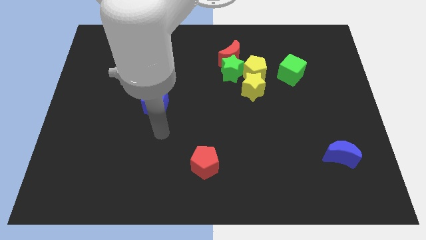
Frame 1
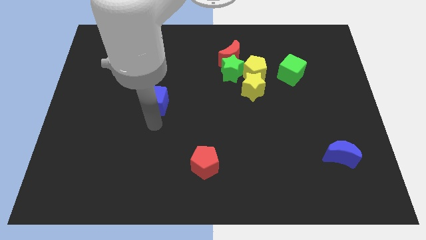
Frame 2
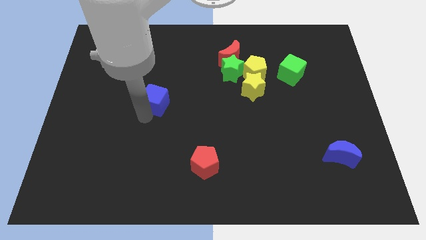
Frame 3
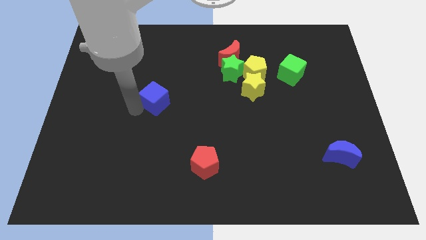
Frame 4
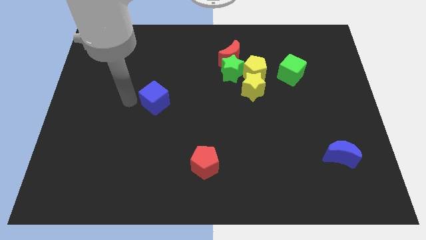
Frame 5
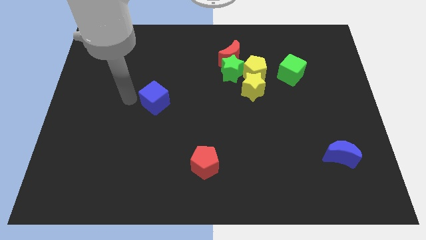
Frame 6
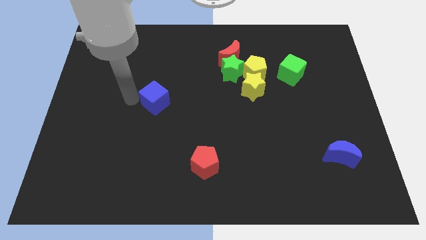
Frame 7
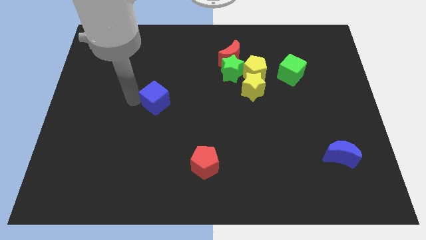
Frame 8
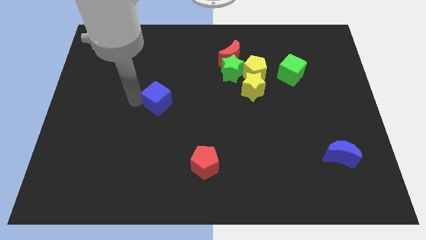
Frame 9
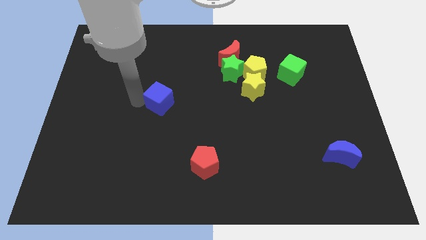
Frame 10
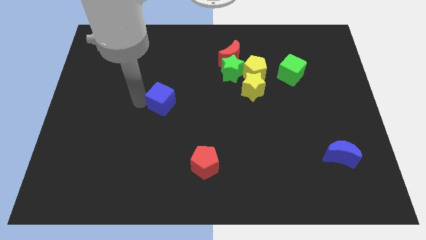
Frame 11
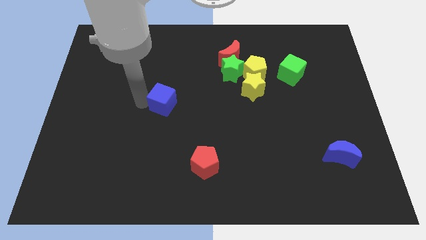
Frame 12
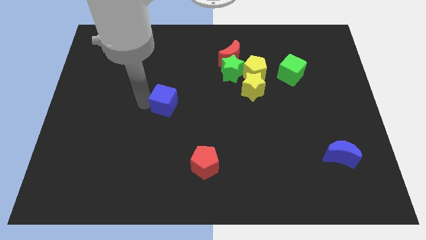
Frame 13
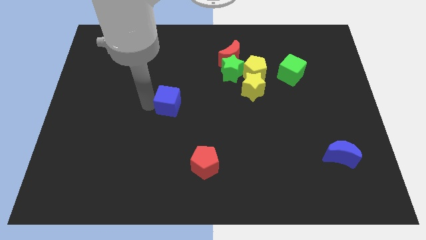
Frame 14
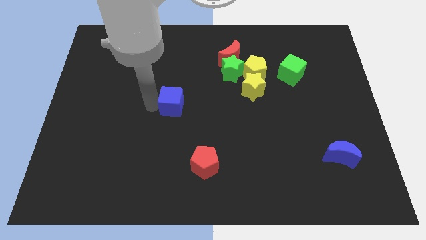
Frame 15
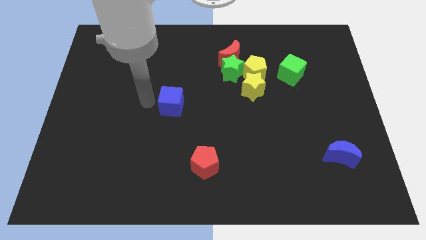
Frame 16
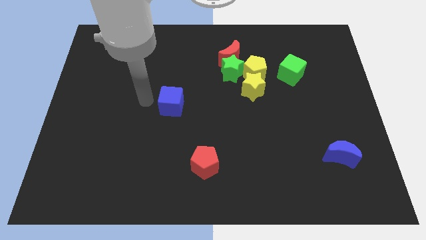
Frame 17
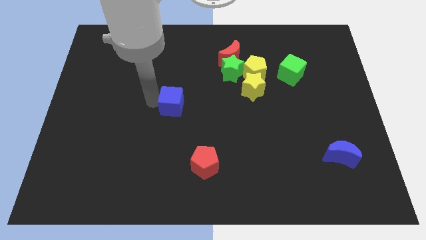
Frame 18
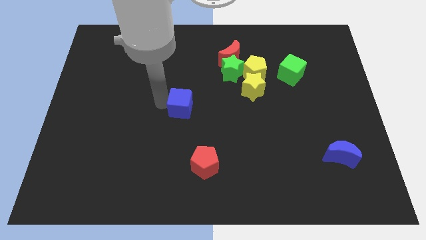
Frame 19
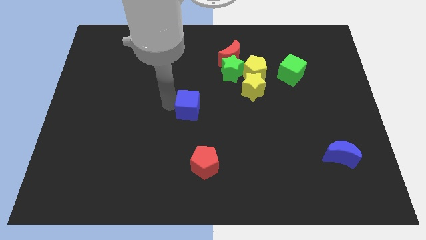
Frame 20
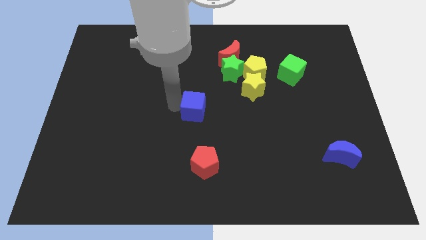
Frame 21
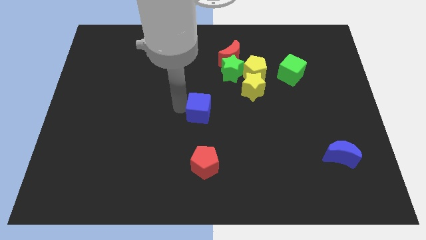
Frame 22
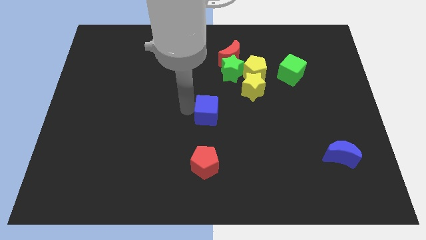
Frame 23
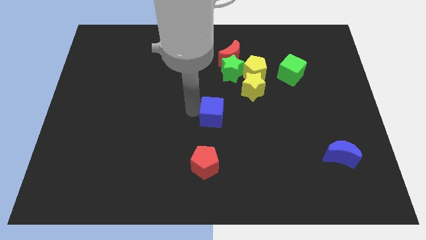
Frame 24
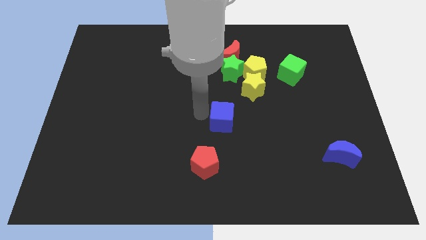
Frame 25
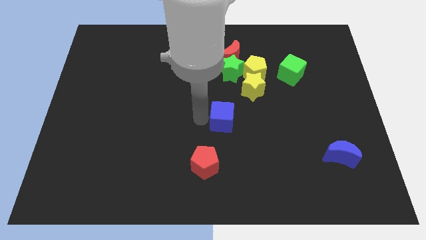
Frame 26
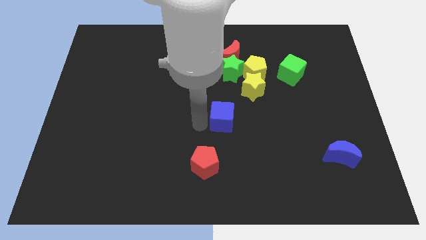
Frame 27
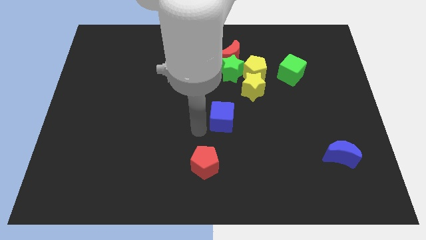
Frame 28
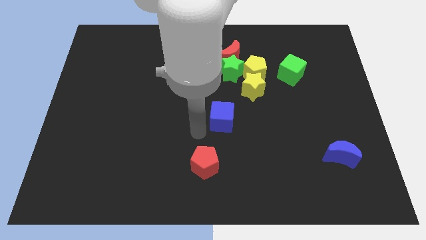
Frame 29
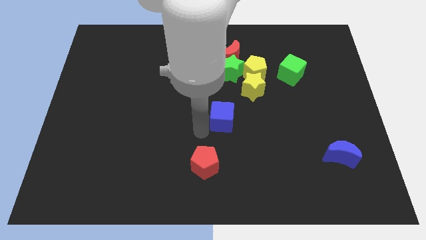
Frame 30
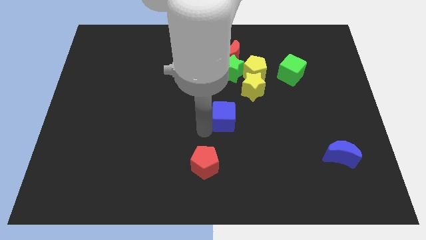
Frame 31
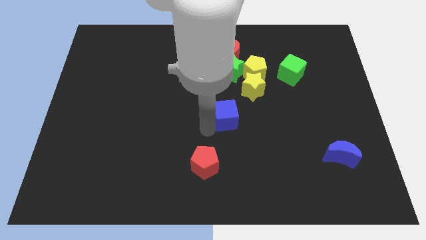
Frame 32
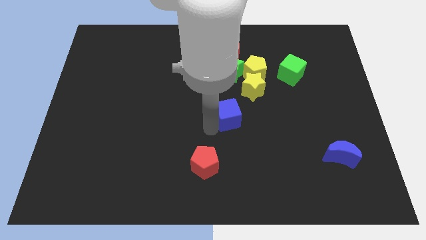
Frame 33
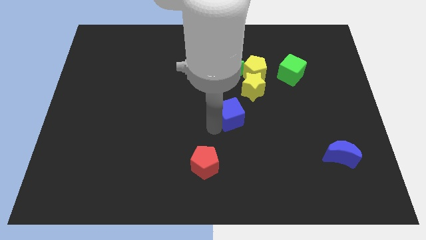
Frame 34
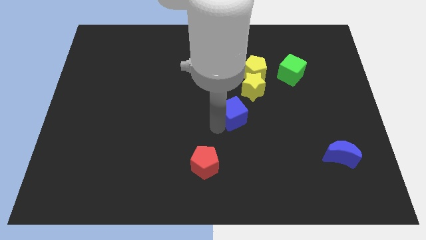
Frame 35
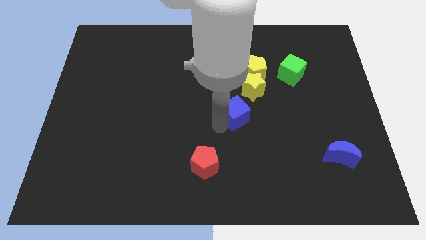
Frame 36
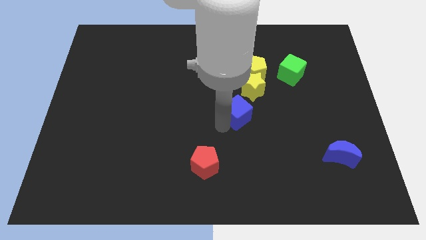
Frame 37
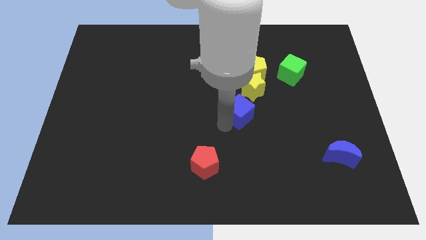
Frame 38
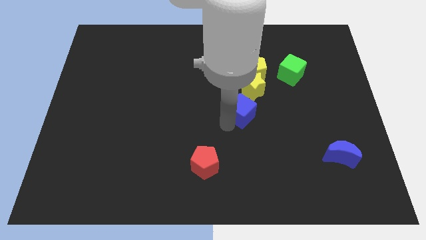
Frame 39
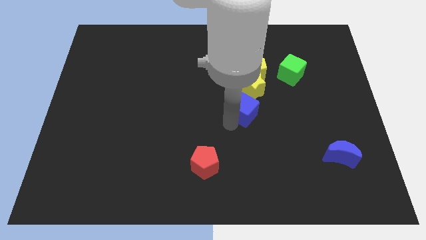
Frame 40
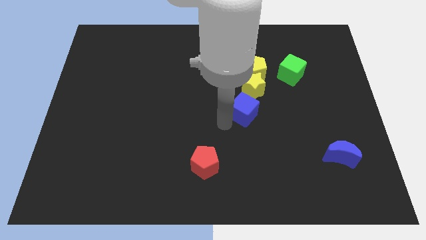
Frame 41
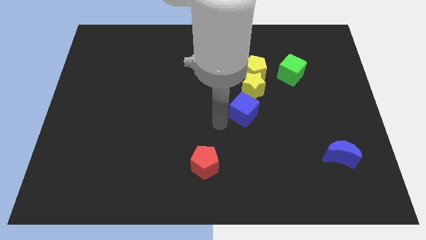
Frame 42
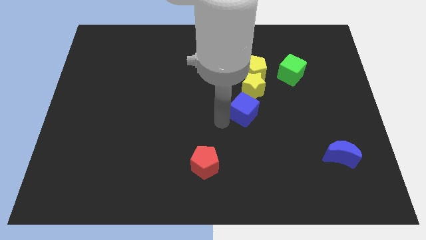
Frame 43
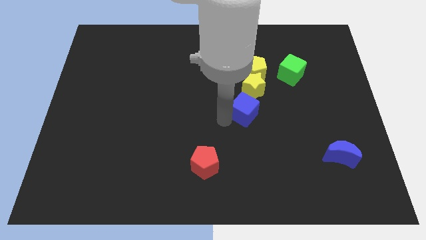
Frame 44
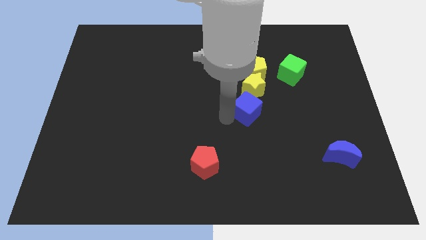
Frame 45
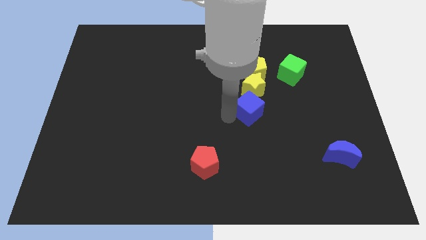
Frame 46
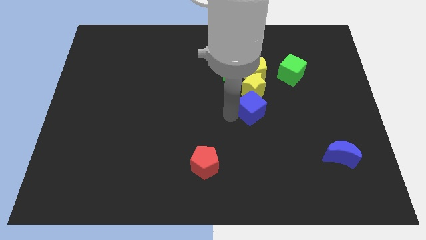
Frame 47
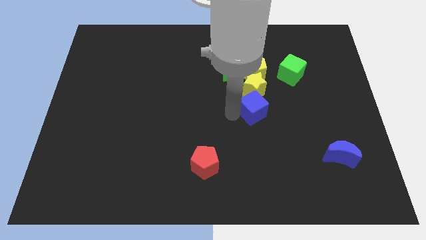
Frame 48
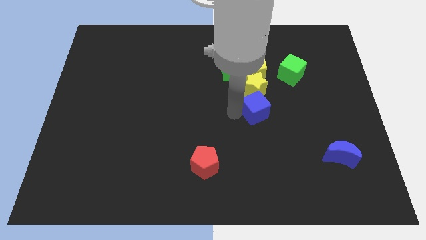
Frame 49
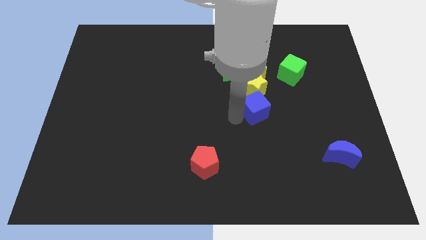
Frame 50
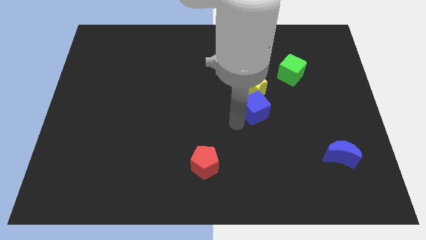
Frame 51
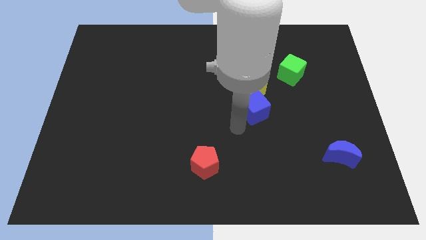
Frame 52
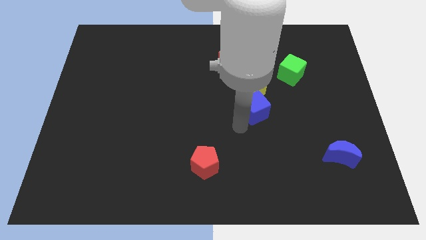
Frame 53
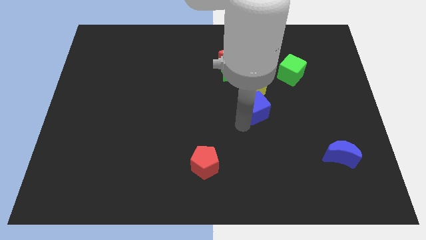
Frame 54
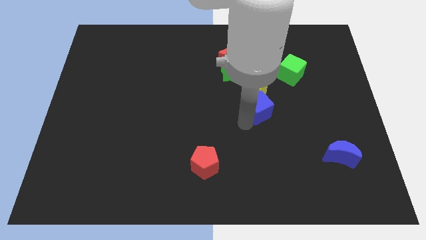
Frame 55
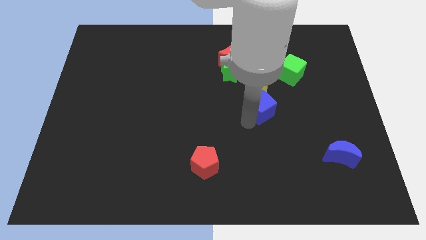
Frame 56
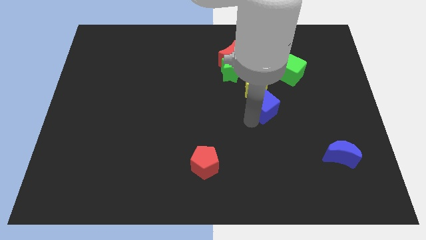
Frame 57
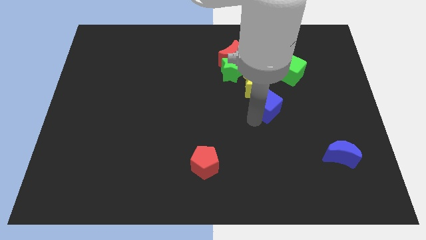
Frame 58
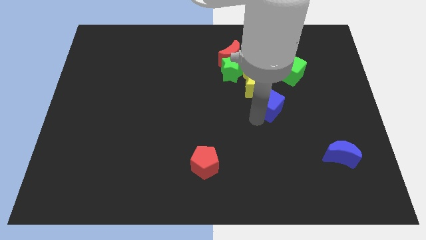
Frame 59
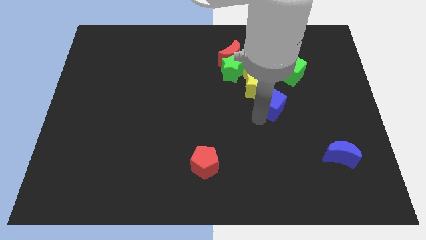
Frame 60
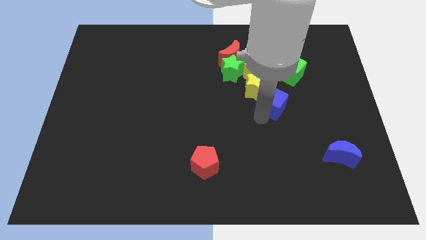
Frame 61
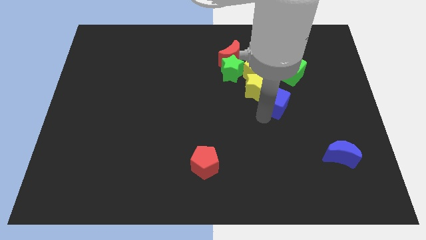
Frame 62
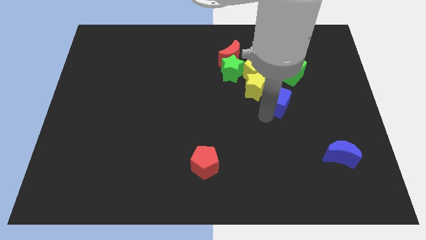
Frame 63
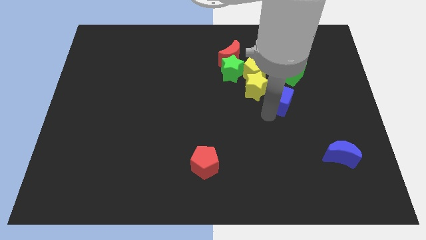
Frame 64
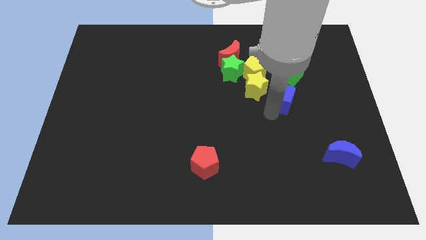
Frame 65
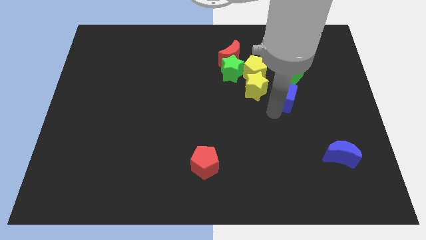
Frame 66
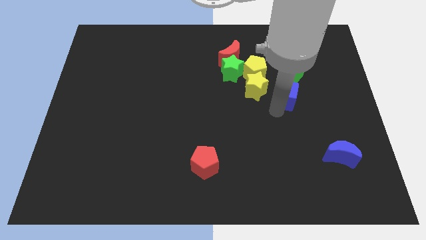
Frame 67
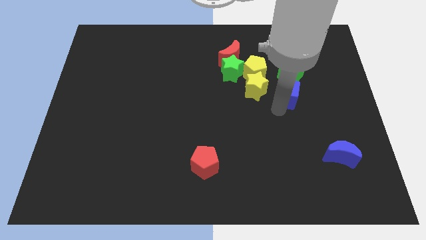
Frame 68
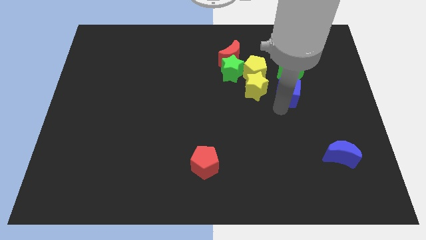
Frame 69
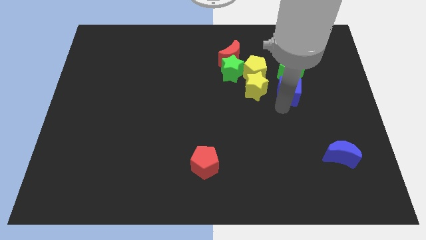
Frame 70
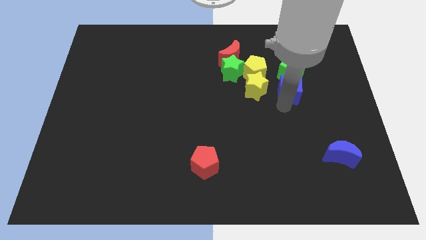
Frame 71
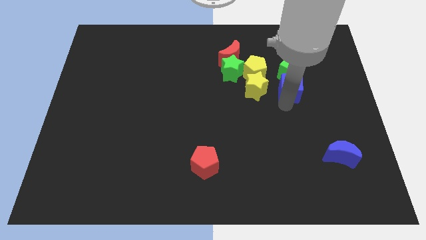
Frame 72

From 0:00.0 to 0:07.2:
push the blue cube towards the green cube
